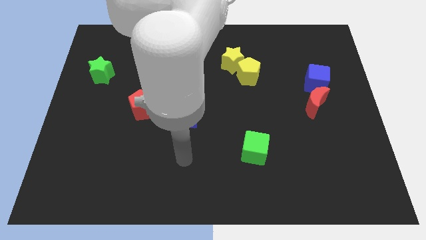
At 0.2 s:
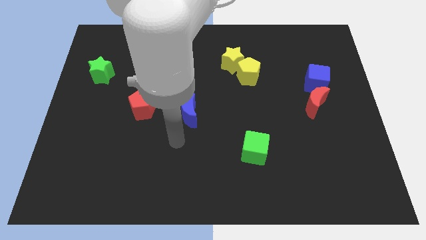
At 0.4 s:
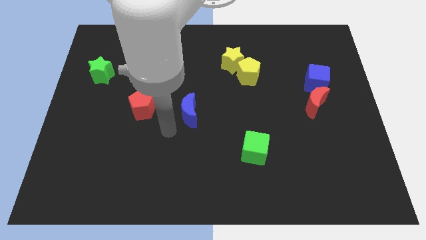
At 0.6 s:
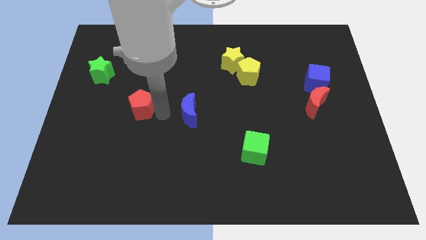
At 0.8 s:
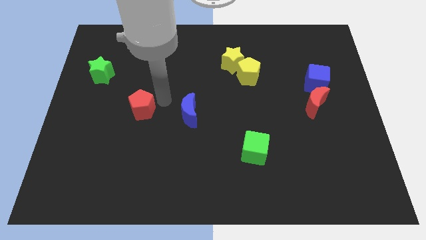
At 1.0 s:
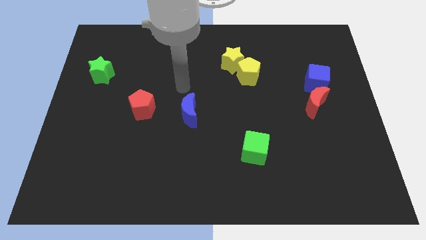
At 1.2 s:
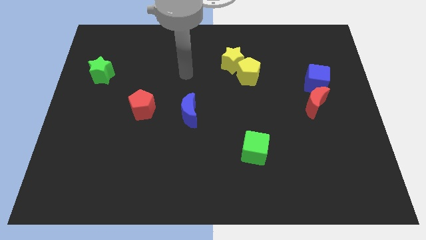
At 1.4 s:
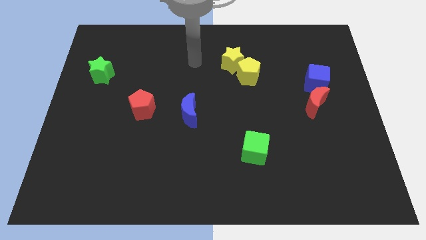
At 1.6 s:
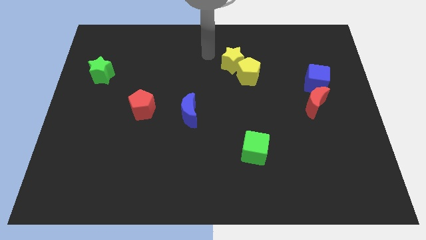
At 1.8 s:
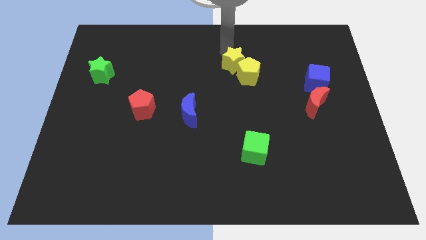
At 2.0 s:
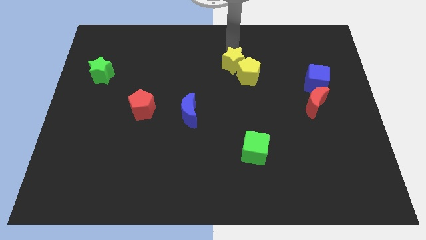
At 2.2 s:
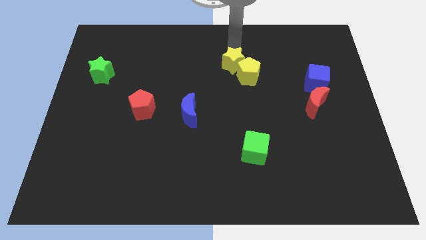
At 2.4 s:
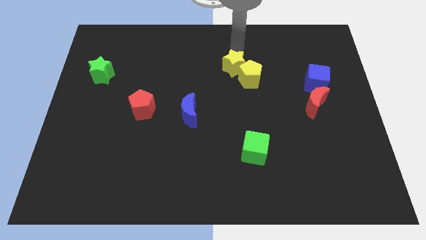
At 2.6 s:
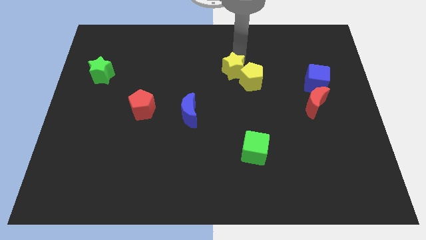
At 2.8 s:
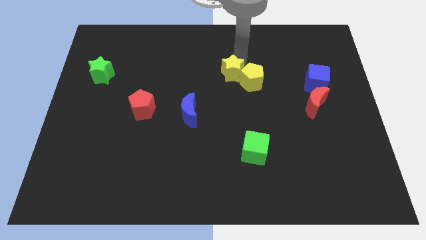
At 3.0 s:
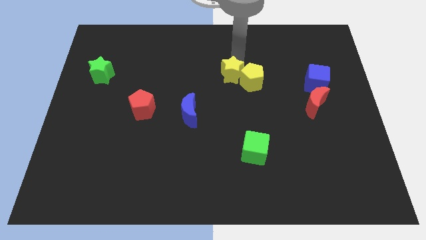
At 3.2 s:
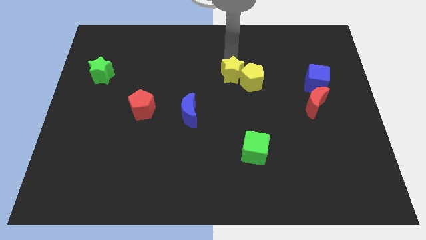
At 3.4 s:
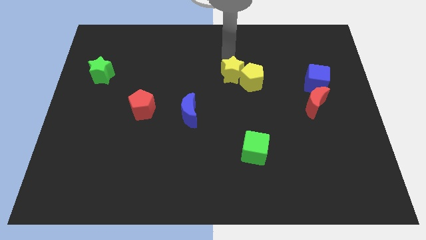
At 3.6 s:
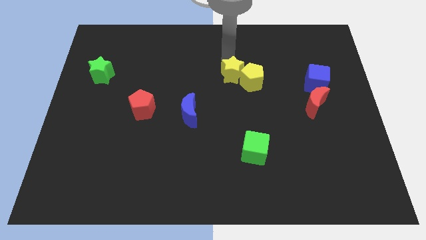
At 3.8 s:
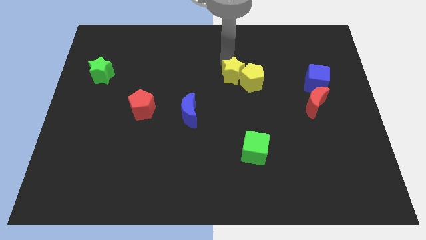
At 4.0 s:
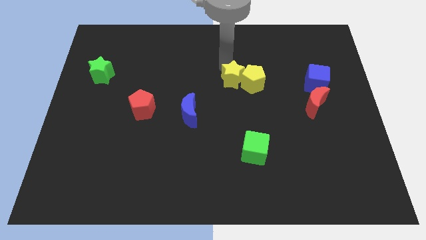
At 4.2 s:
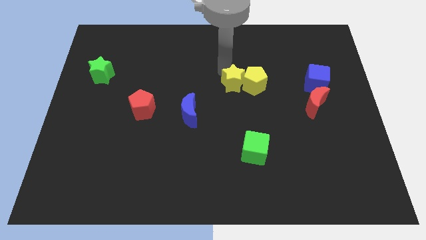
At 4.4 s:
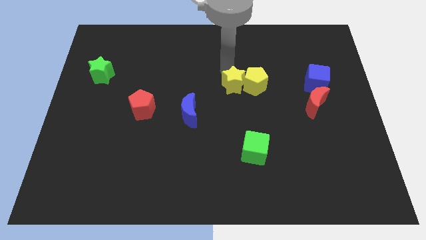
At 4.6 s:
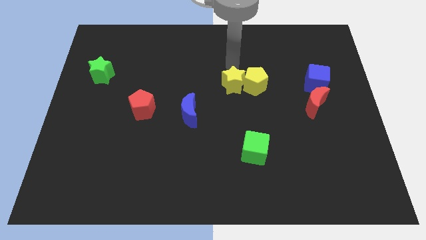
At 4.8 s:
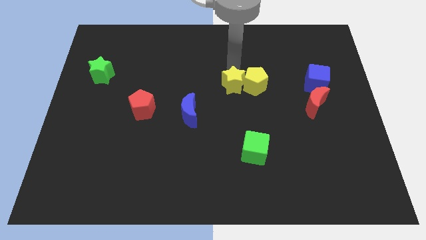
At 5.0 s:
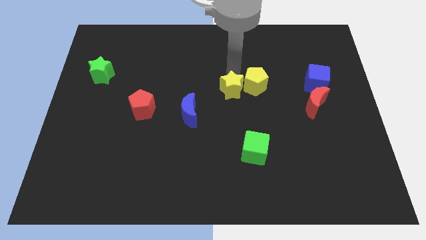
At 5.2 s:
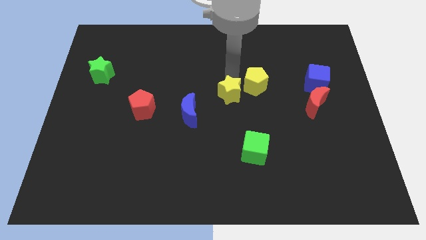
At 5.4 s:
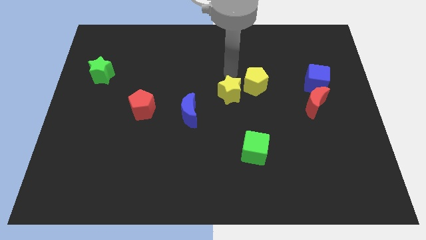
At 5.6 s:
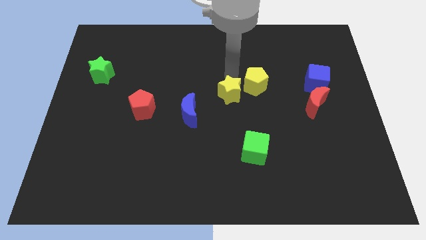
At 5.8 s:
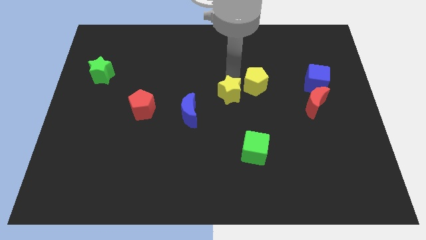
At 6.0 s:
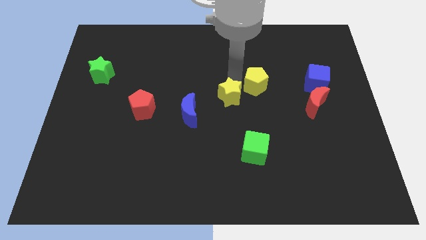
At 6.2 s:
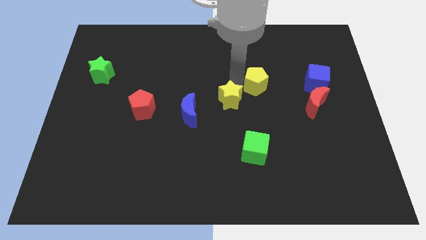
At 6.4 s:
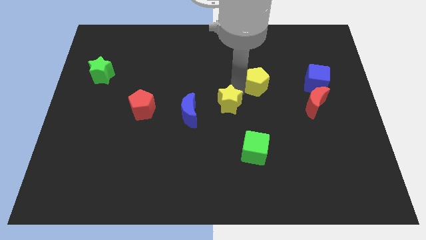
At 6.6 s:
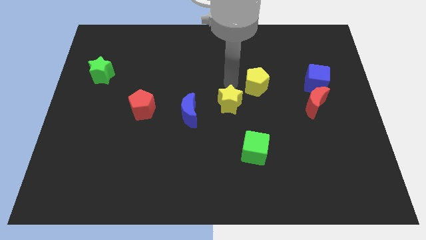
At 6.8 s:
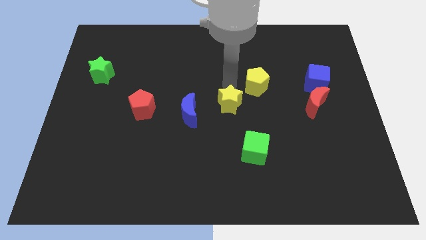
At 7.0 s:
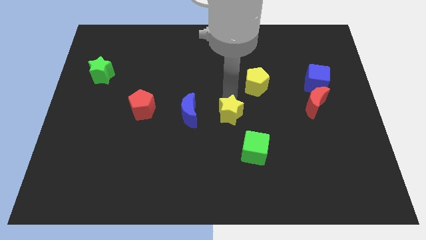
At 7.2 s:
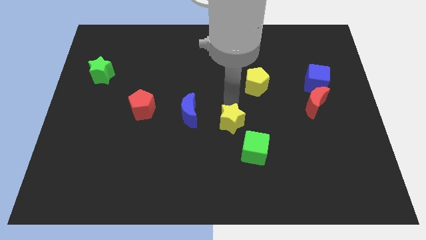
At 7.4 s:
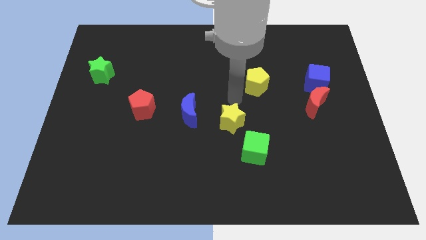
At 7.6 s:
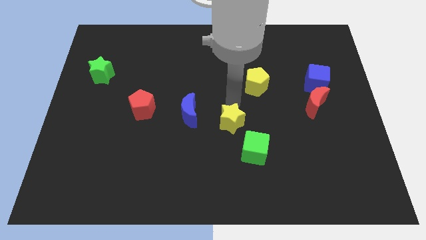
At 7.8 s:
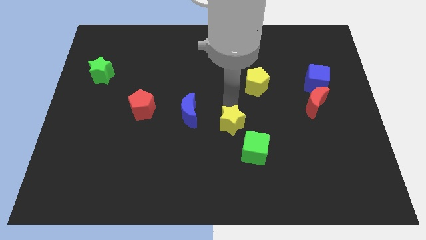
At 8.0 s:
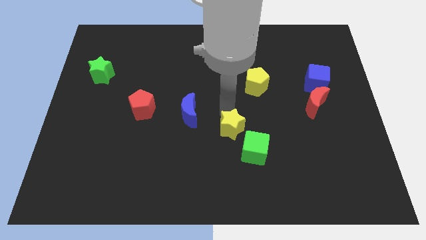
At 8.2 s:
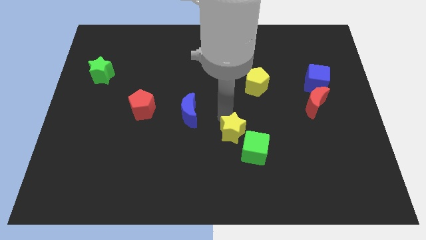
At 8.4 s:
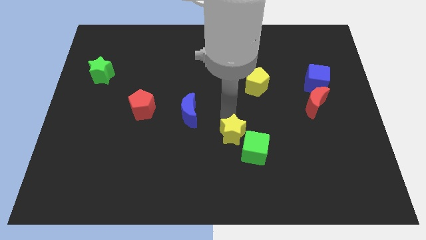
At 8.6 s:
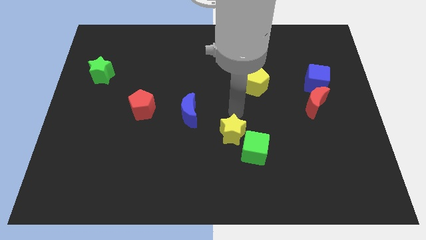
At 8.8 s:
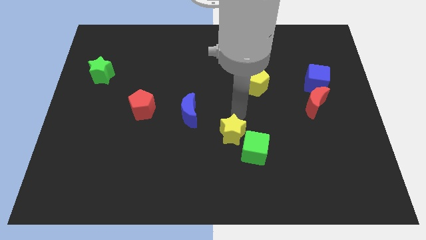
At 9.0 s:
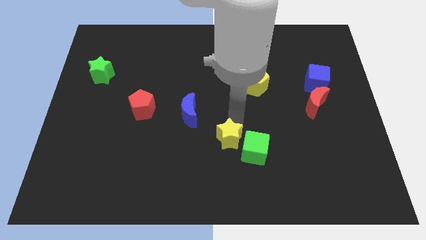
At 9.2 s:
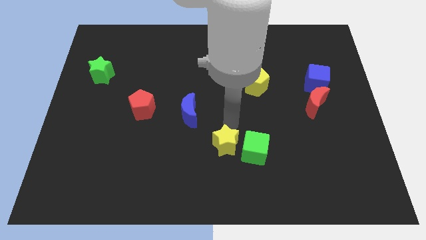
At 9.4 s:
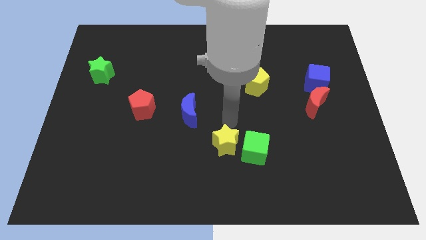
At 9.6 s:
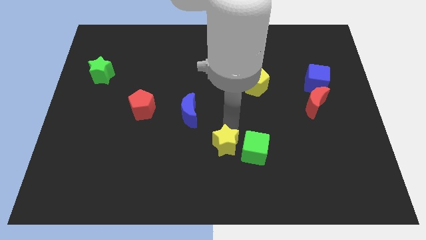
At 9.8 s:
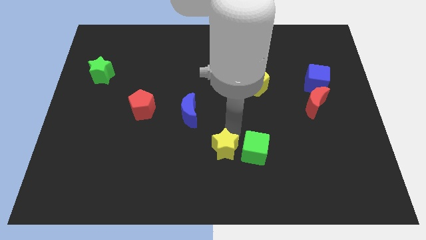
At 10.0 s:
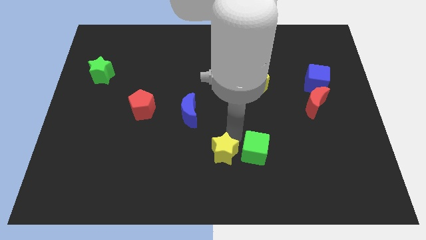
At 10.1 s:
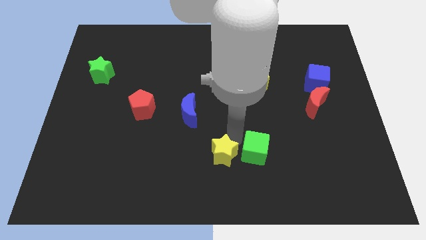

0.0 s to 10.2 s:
put the yellow star to the bottom side

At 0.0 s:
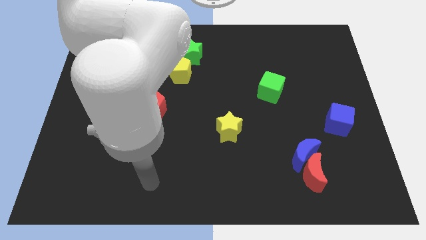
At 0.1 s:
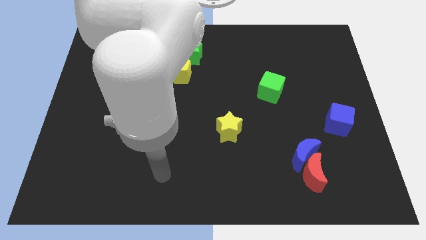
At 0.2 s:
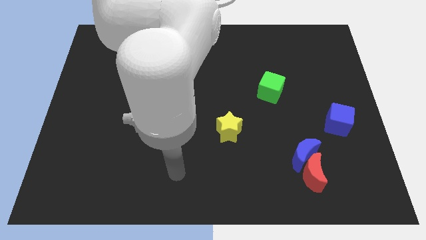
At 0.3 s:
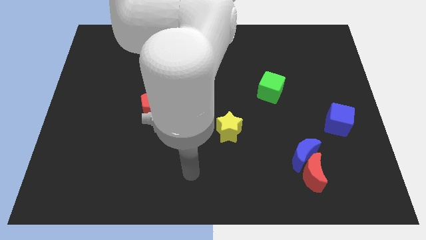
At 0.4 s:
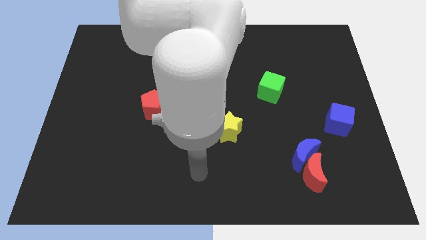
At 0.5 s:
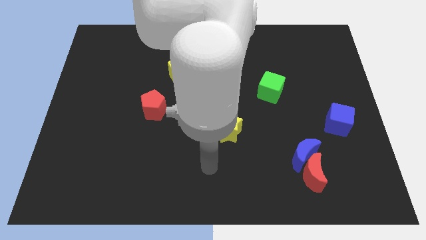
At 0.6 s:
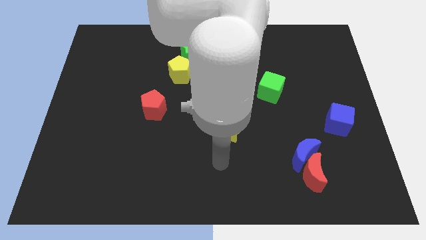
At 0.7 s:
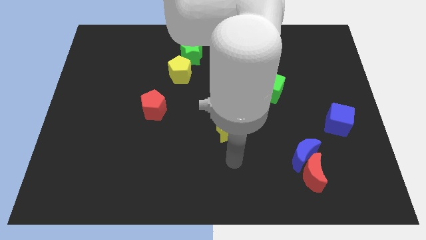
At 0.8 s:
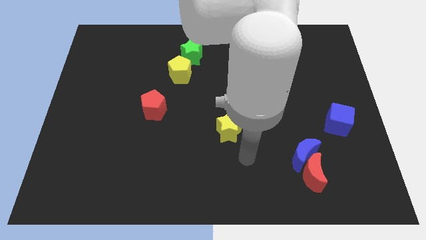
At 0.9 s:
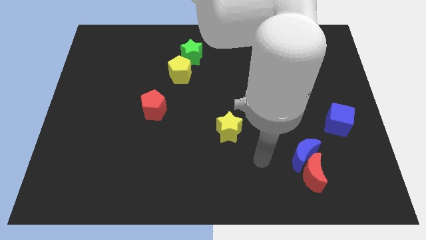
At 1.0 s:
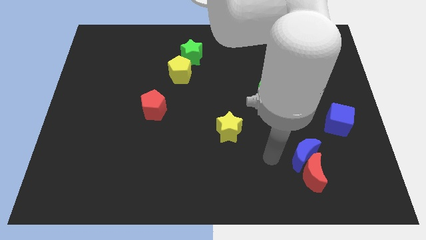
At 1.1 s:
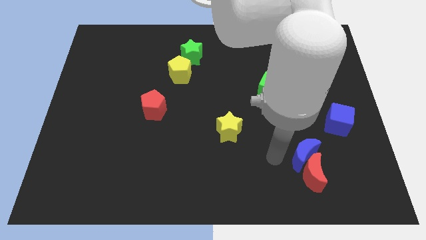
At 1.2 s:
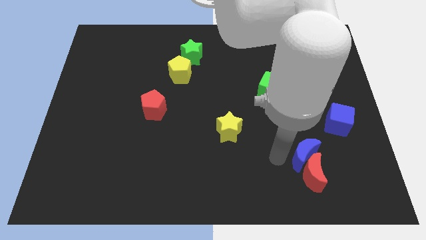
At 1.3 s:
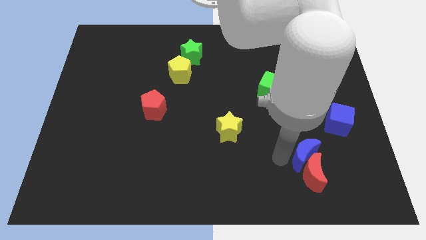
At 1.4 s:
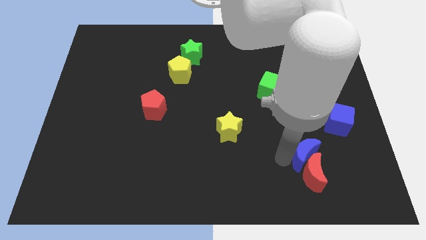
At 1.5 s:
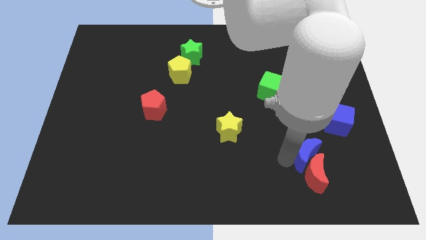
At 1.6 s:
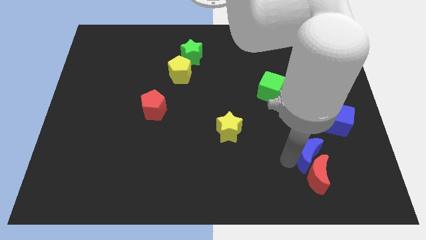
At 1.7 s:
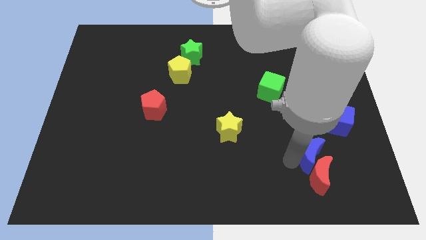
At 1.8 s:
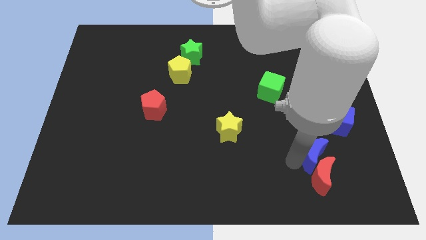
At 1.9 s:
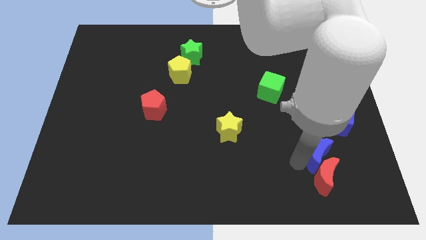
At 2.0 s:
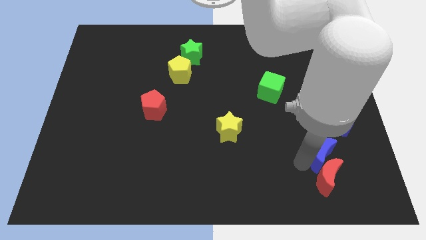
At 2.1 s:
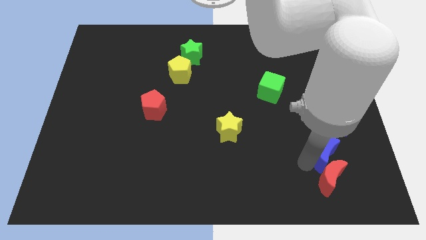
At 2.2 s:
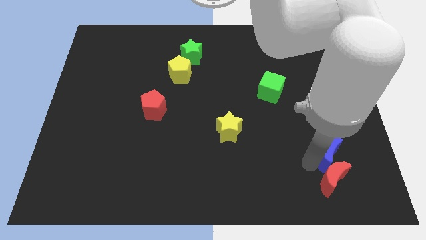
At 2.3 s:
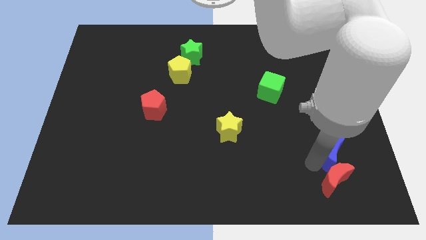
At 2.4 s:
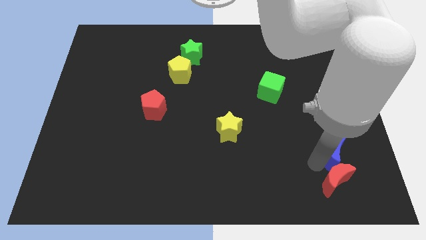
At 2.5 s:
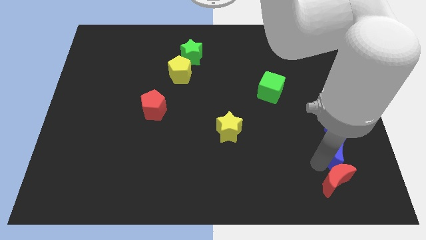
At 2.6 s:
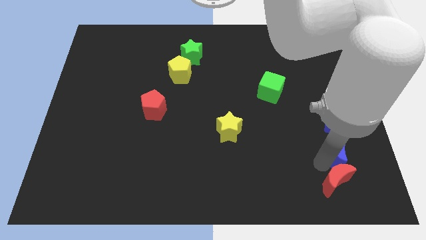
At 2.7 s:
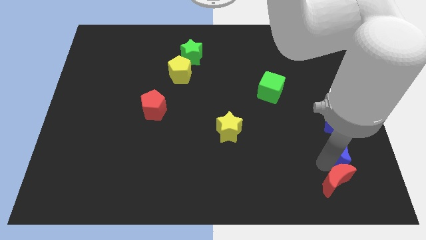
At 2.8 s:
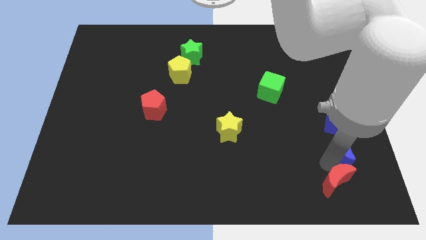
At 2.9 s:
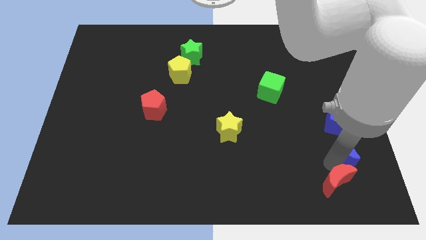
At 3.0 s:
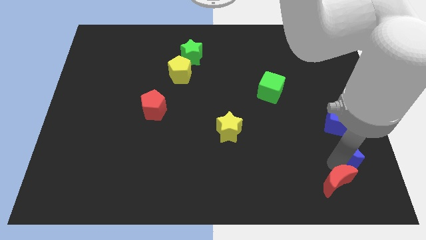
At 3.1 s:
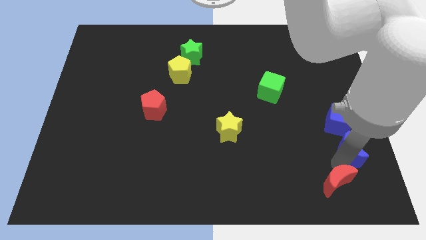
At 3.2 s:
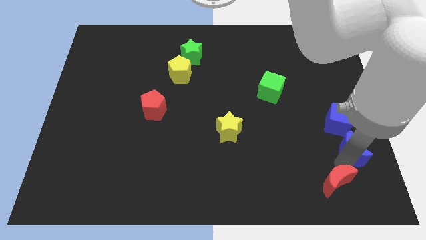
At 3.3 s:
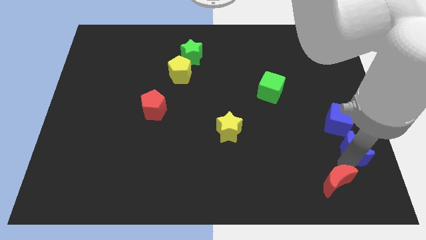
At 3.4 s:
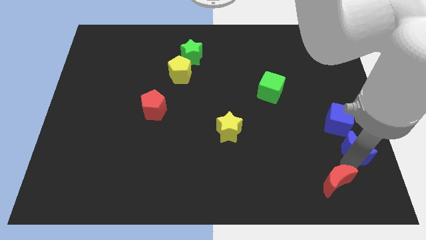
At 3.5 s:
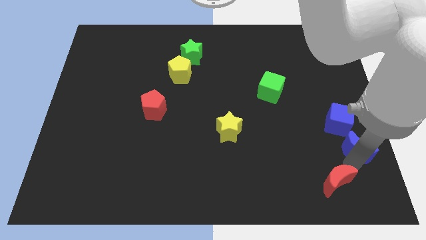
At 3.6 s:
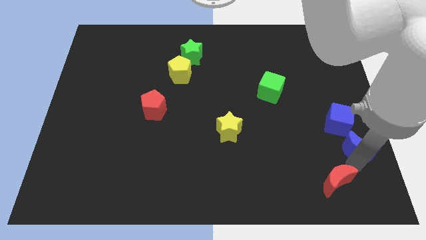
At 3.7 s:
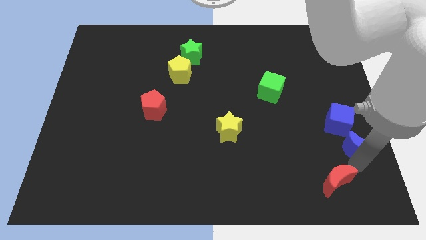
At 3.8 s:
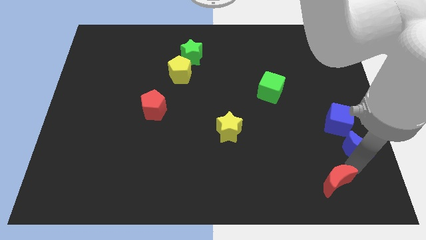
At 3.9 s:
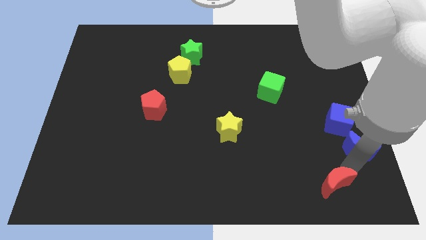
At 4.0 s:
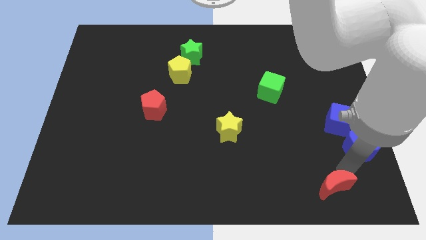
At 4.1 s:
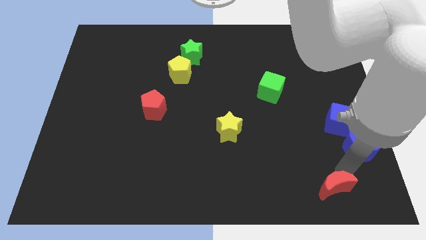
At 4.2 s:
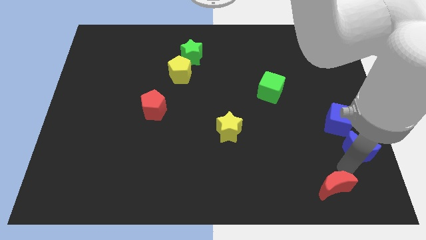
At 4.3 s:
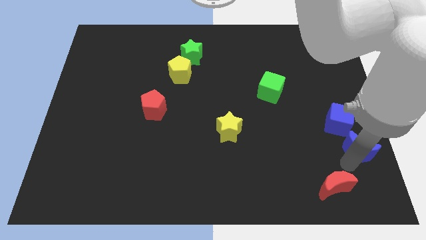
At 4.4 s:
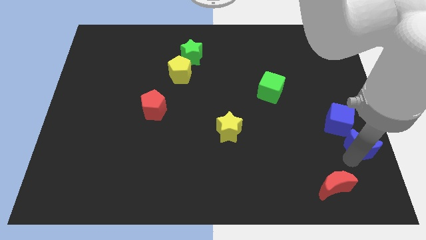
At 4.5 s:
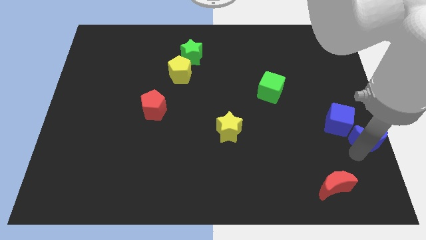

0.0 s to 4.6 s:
slide the blue moon to the right side
